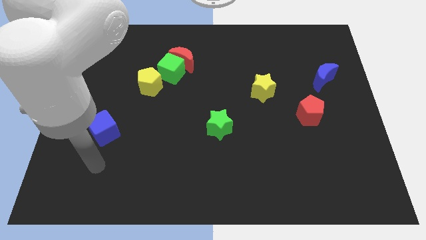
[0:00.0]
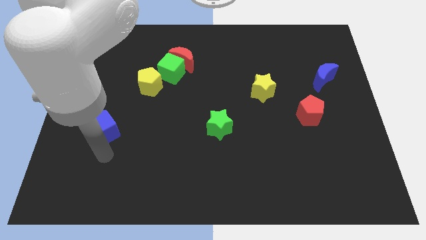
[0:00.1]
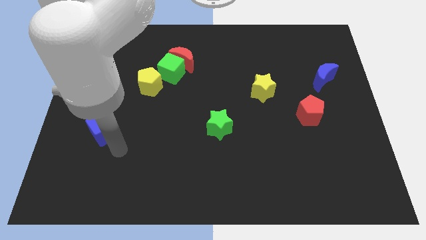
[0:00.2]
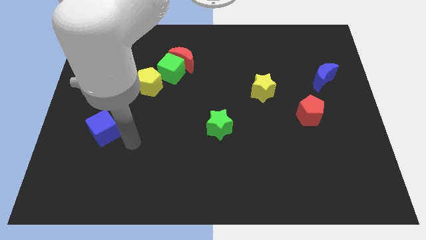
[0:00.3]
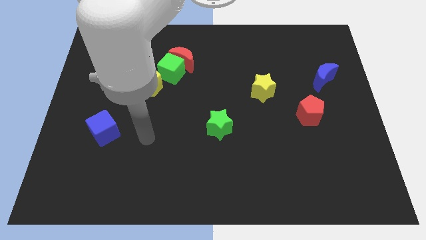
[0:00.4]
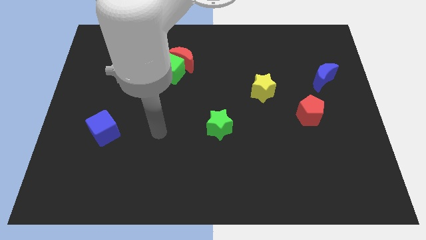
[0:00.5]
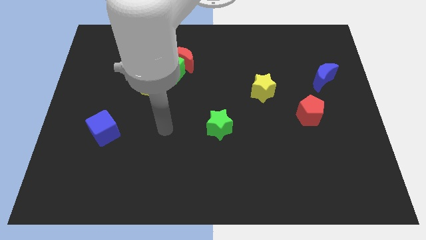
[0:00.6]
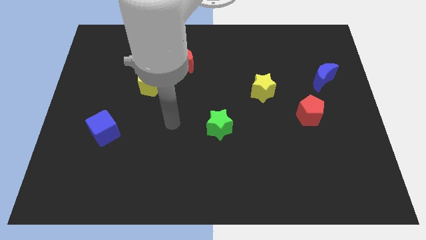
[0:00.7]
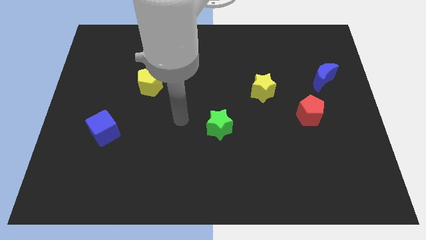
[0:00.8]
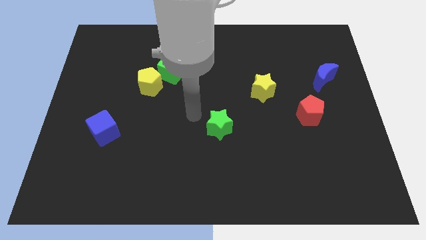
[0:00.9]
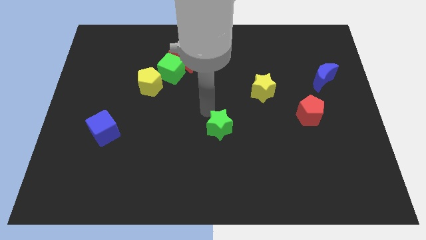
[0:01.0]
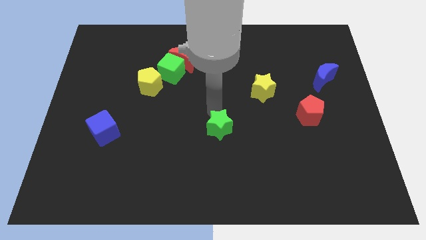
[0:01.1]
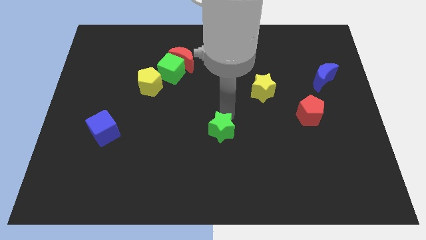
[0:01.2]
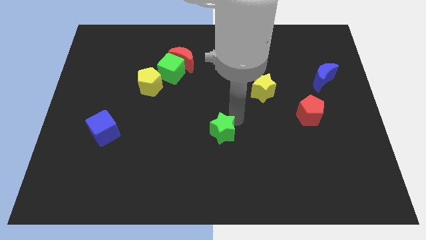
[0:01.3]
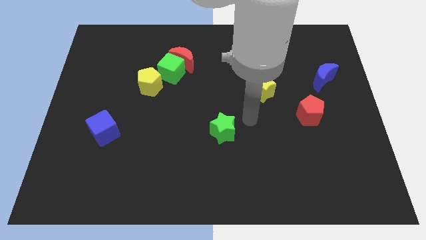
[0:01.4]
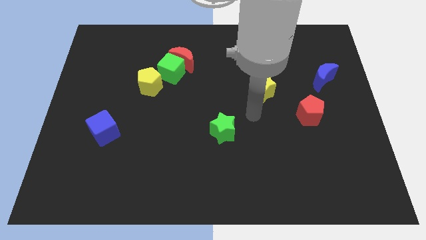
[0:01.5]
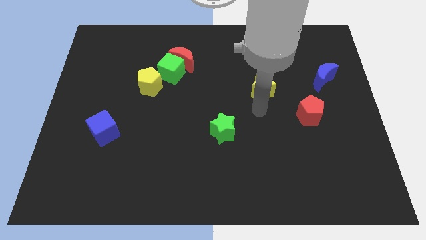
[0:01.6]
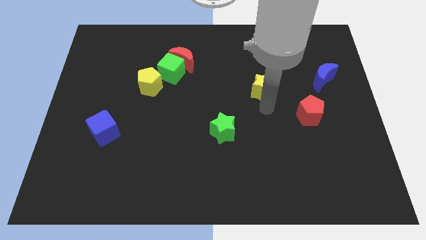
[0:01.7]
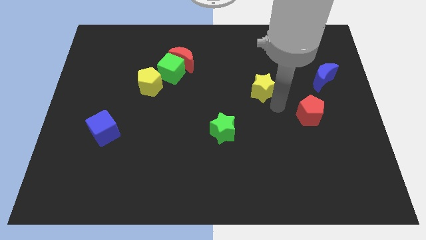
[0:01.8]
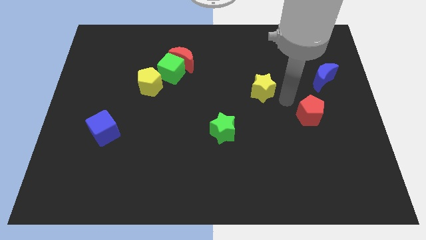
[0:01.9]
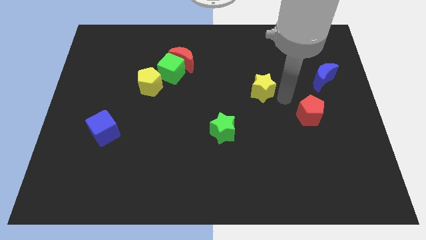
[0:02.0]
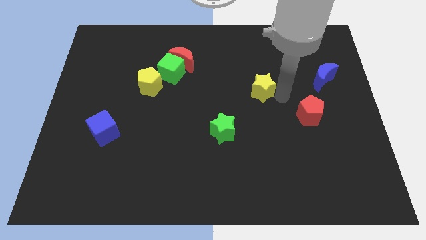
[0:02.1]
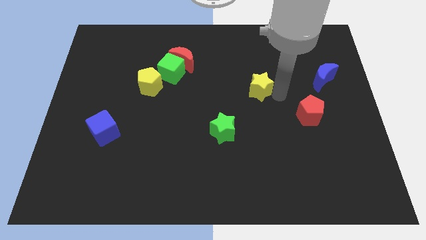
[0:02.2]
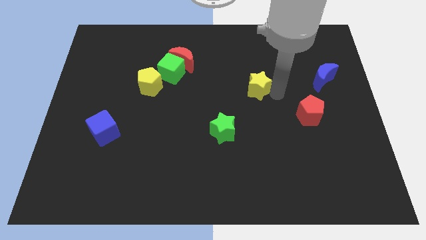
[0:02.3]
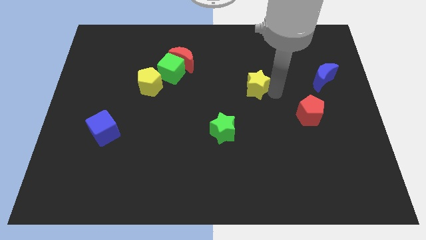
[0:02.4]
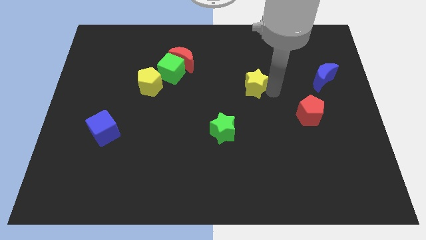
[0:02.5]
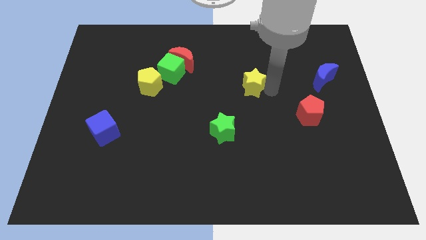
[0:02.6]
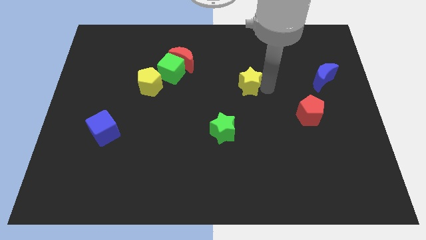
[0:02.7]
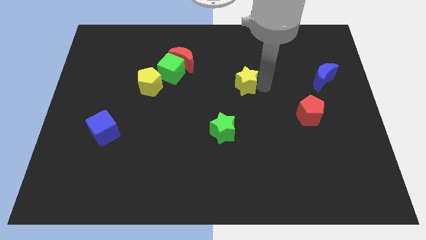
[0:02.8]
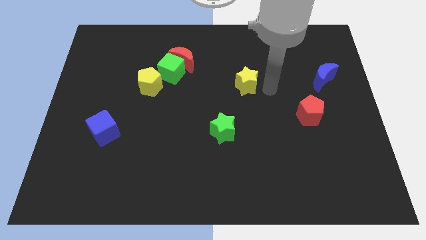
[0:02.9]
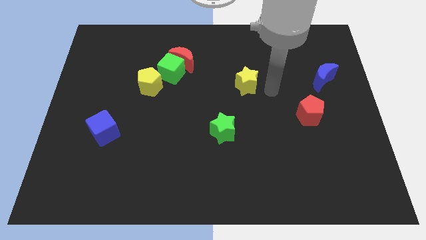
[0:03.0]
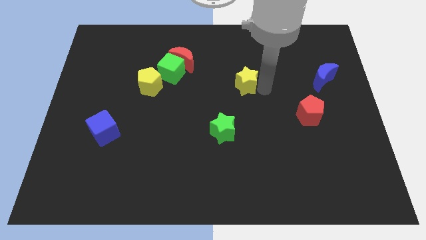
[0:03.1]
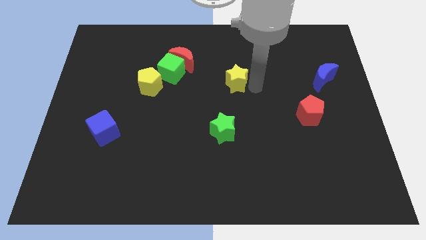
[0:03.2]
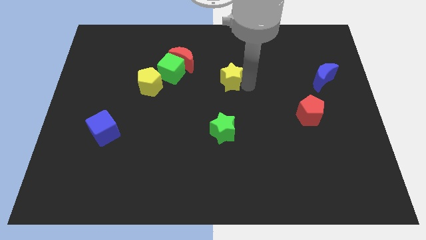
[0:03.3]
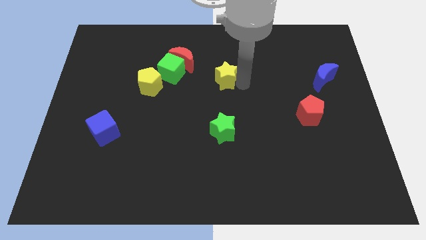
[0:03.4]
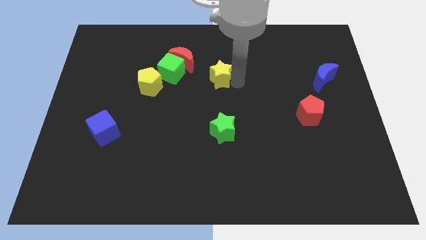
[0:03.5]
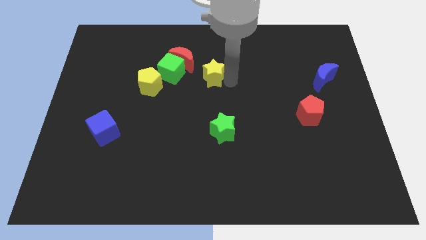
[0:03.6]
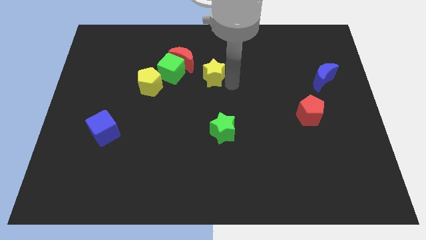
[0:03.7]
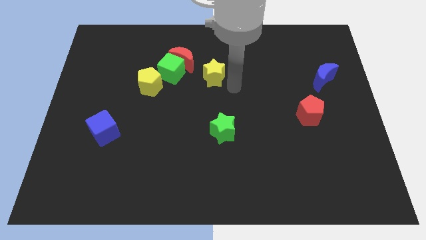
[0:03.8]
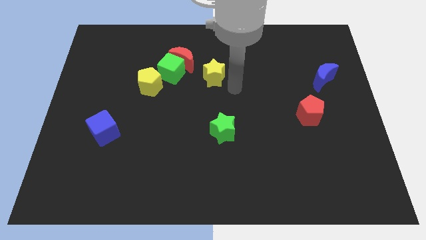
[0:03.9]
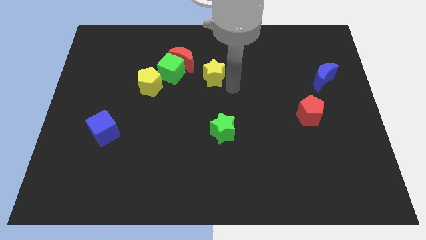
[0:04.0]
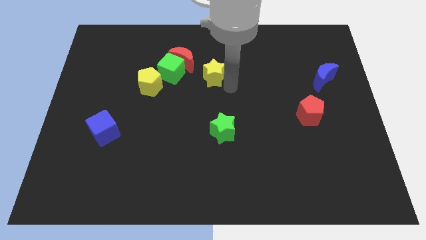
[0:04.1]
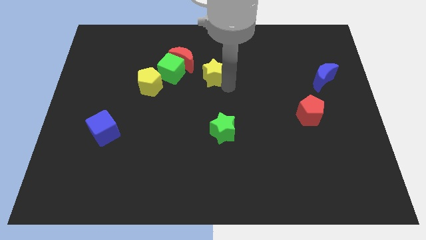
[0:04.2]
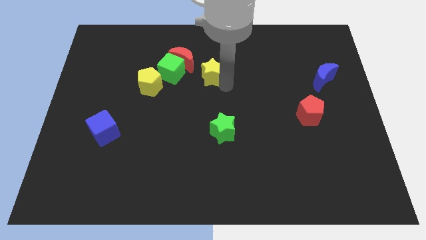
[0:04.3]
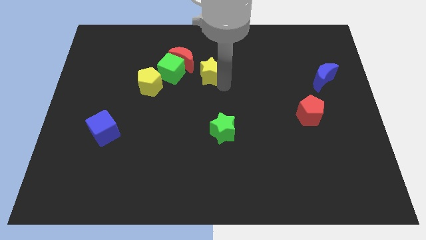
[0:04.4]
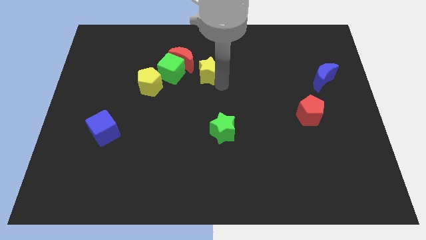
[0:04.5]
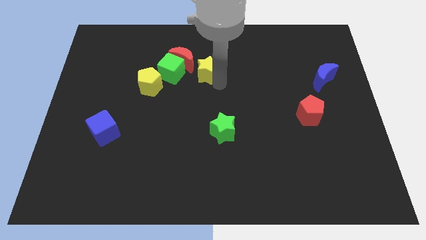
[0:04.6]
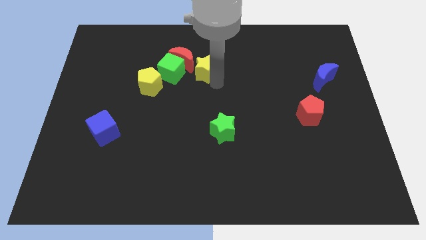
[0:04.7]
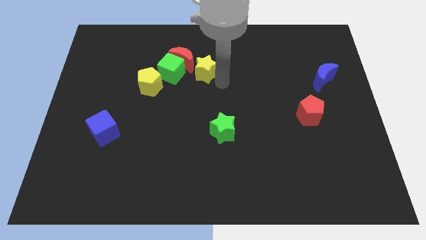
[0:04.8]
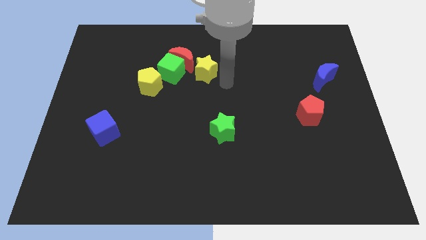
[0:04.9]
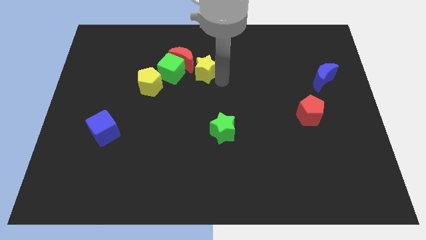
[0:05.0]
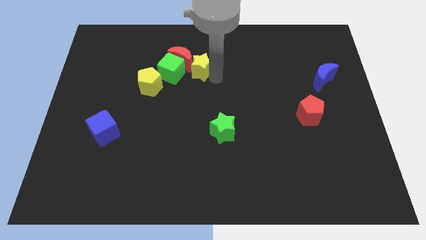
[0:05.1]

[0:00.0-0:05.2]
push the yellow star to the red moon

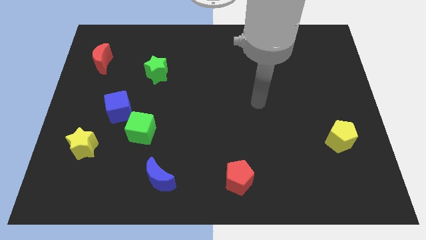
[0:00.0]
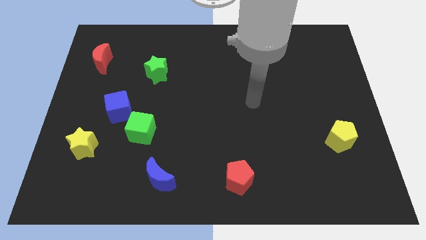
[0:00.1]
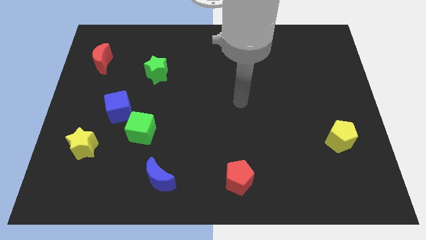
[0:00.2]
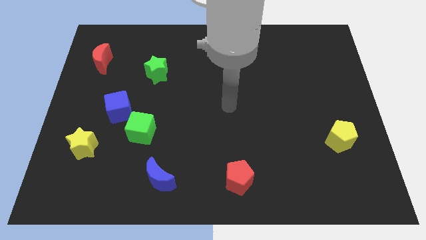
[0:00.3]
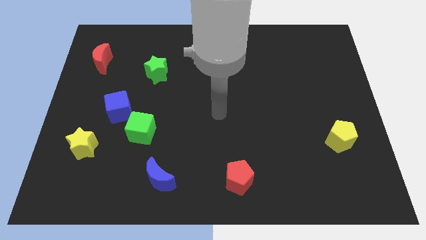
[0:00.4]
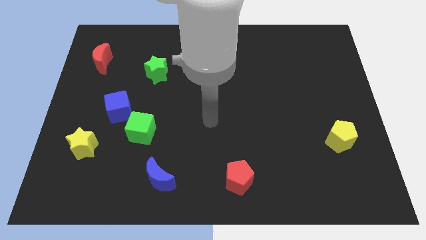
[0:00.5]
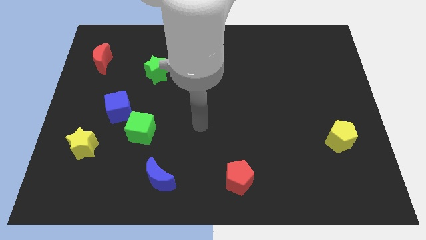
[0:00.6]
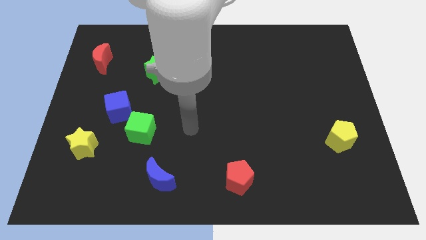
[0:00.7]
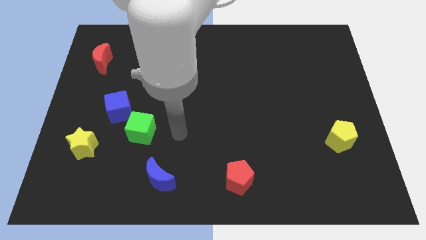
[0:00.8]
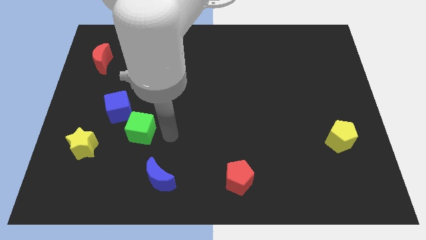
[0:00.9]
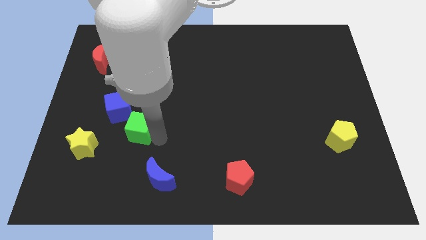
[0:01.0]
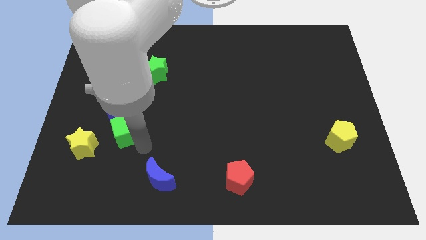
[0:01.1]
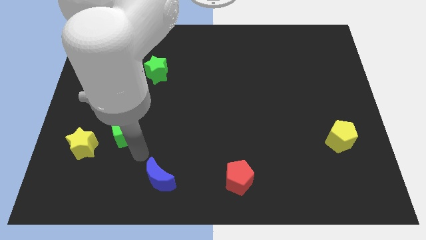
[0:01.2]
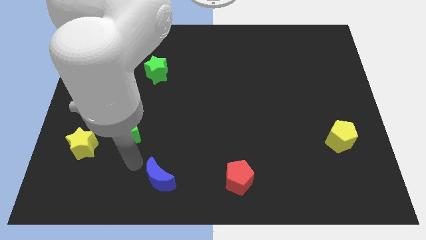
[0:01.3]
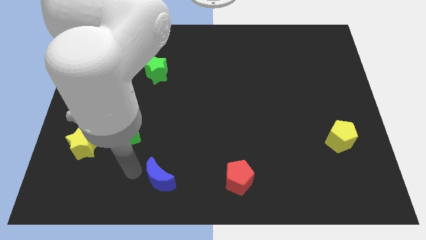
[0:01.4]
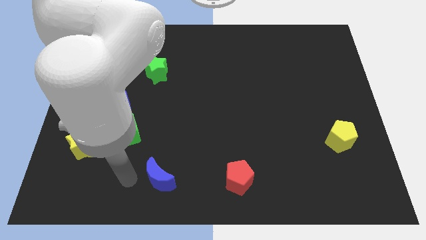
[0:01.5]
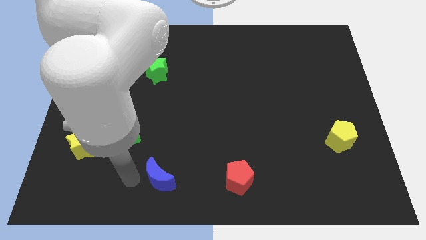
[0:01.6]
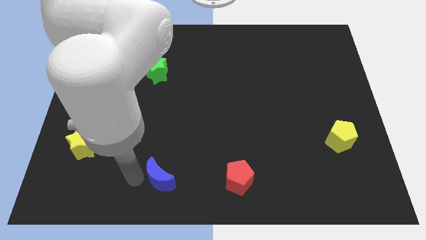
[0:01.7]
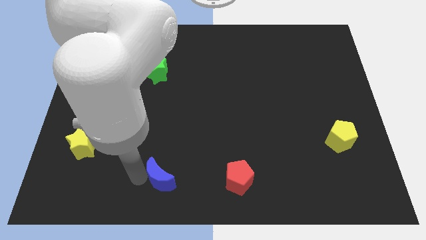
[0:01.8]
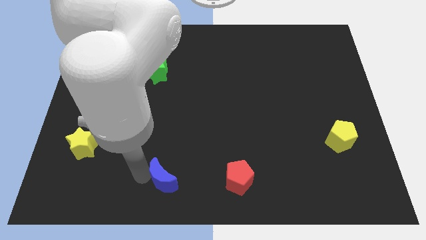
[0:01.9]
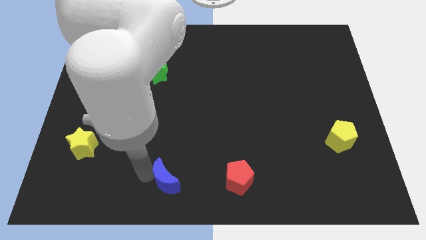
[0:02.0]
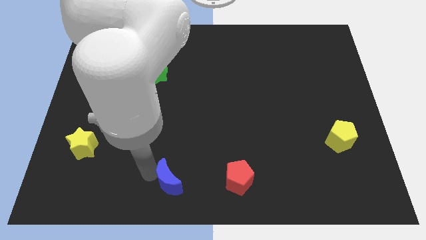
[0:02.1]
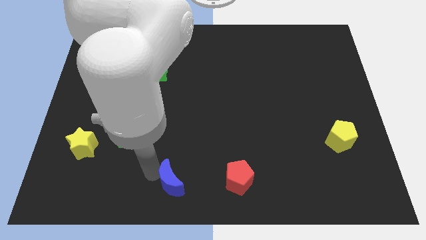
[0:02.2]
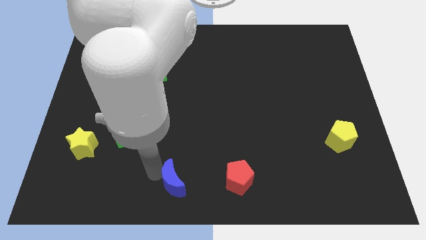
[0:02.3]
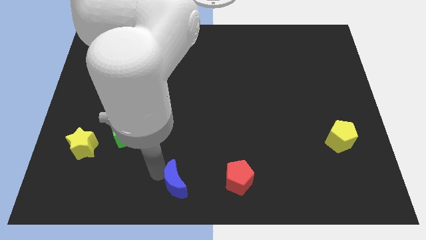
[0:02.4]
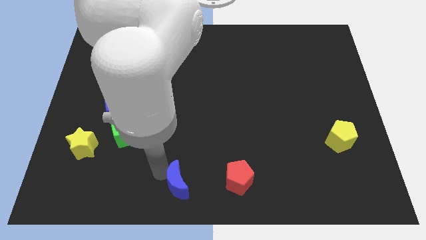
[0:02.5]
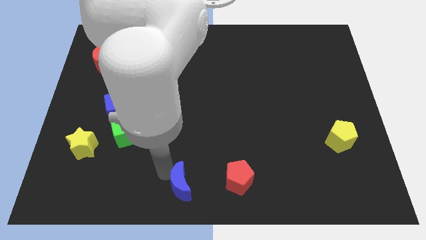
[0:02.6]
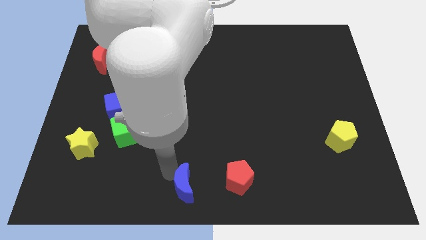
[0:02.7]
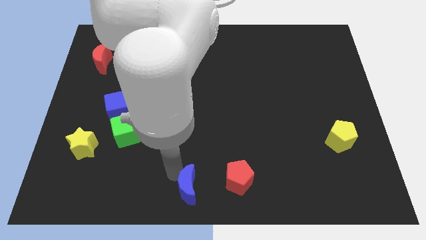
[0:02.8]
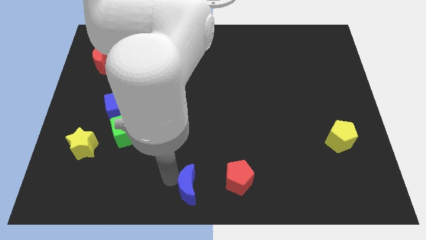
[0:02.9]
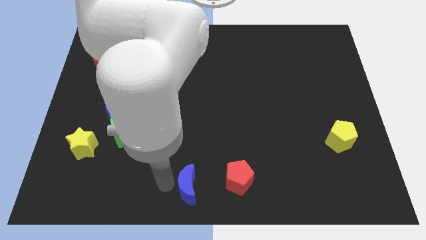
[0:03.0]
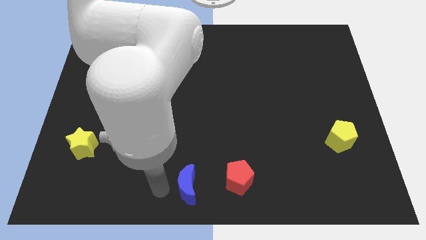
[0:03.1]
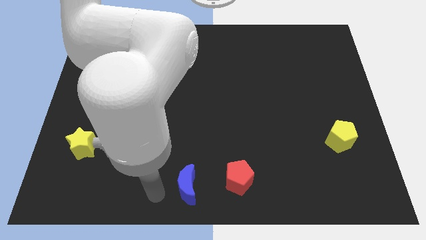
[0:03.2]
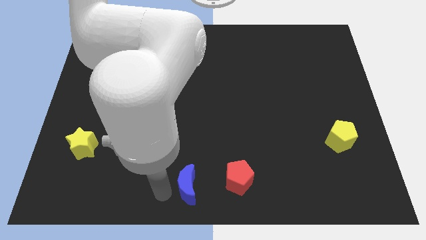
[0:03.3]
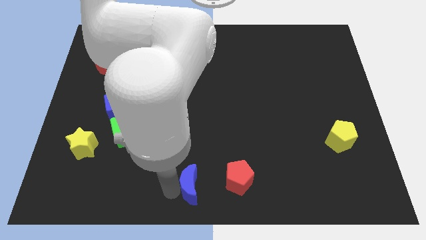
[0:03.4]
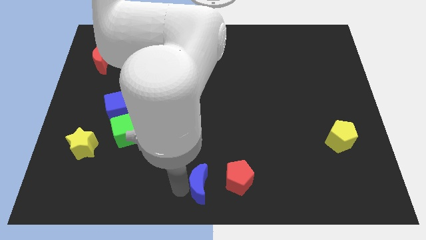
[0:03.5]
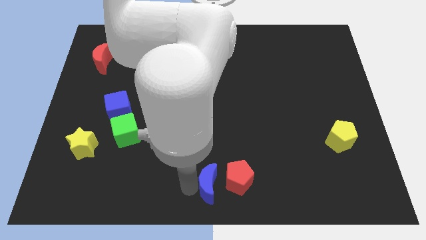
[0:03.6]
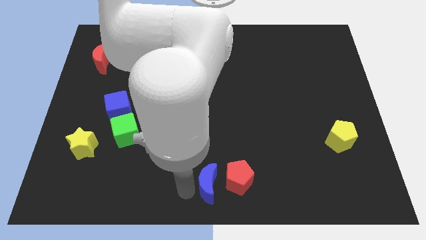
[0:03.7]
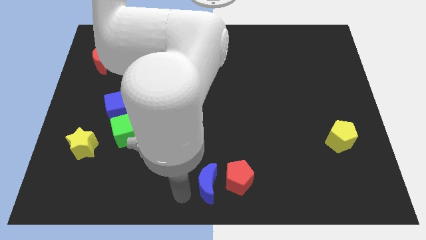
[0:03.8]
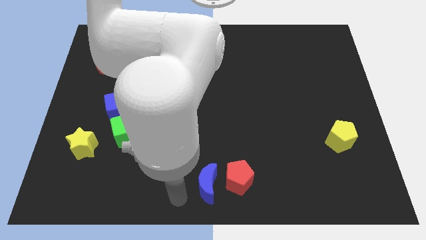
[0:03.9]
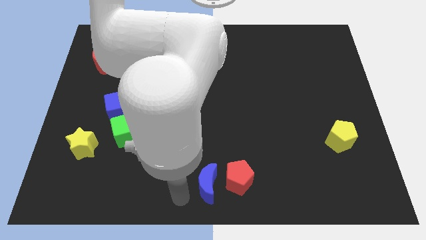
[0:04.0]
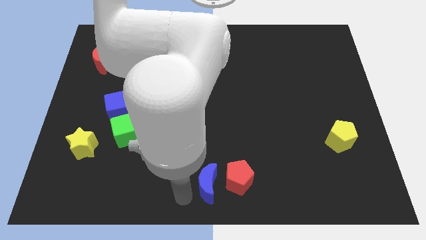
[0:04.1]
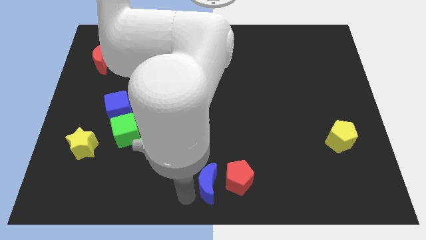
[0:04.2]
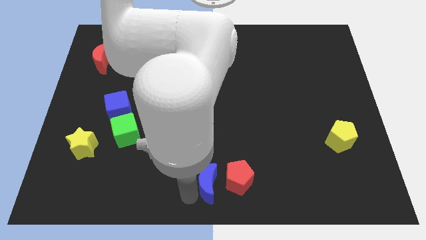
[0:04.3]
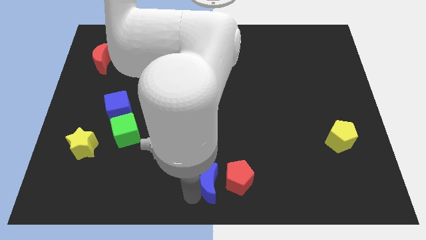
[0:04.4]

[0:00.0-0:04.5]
put the blue moon next to the red pentagon
